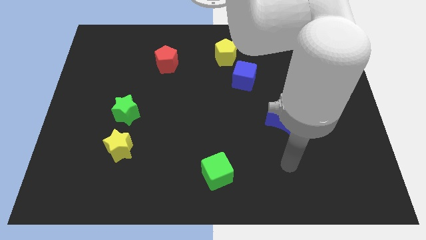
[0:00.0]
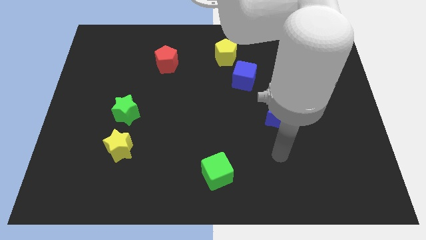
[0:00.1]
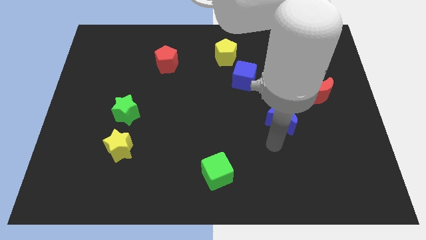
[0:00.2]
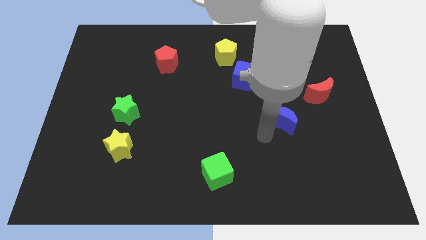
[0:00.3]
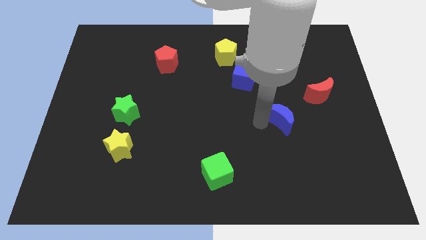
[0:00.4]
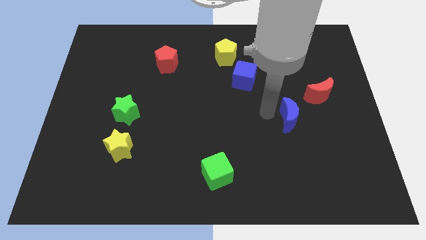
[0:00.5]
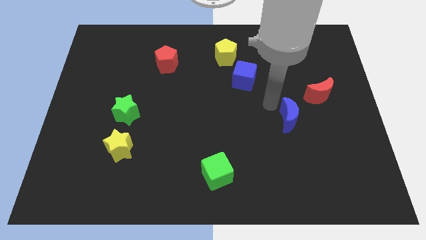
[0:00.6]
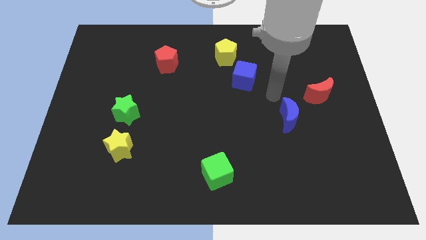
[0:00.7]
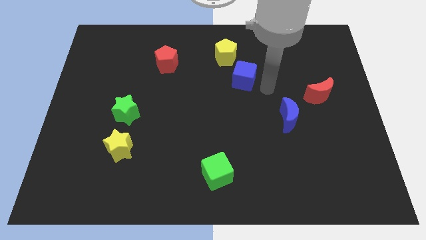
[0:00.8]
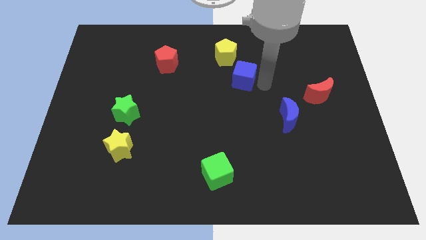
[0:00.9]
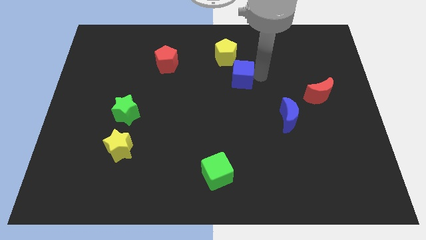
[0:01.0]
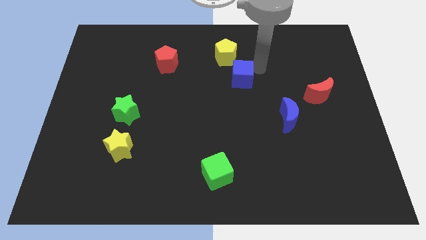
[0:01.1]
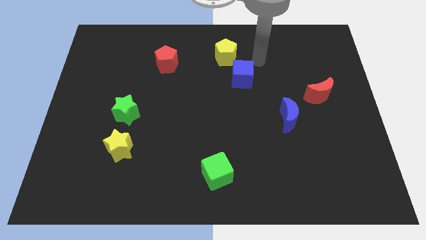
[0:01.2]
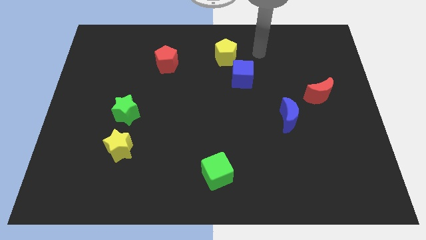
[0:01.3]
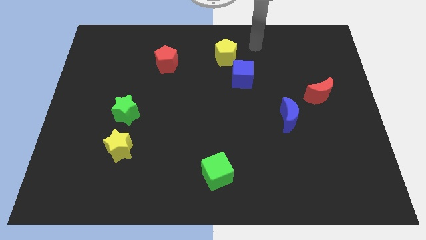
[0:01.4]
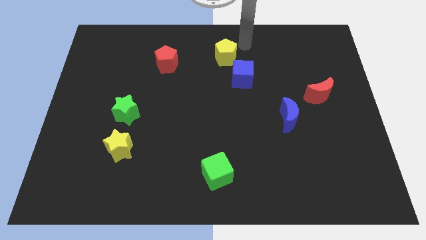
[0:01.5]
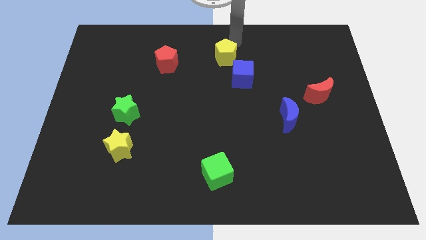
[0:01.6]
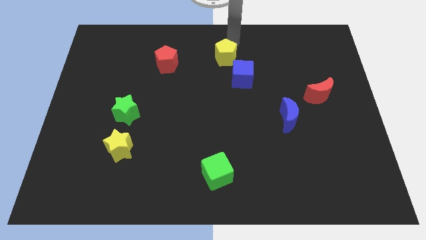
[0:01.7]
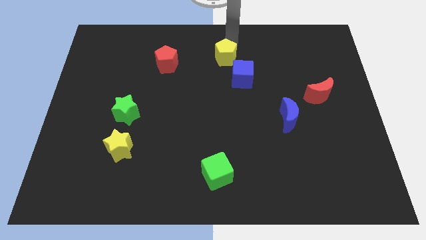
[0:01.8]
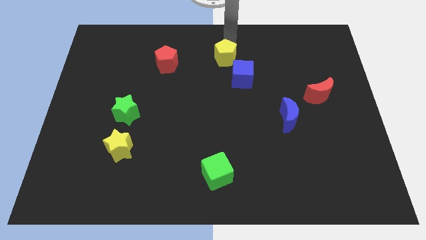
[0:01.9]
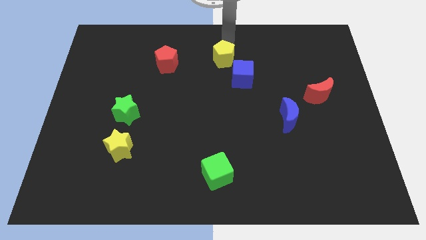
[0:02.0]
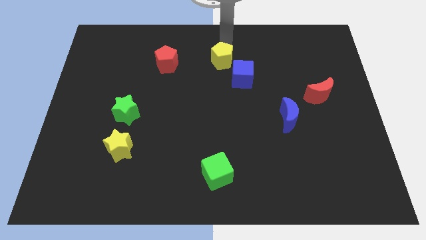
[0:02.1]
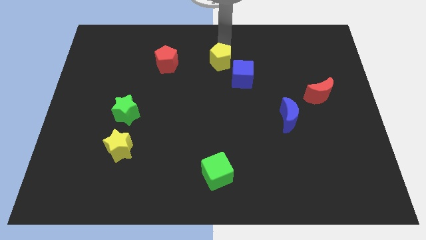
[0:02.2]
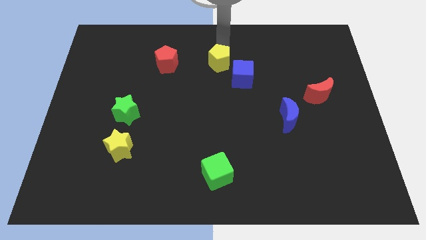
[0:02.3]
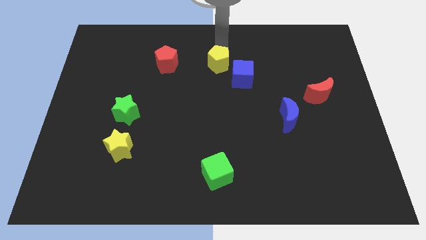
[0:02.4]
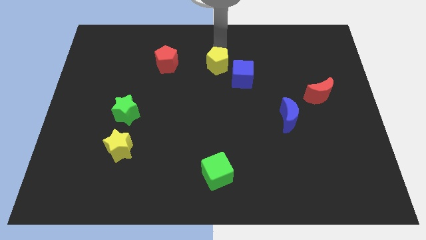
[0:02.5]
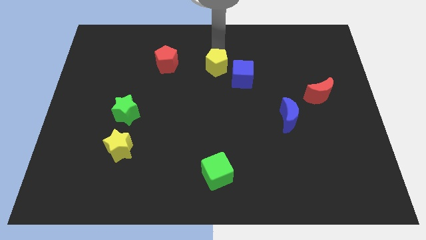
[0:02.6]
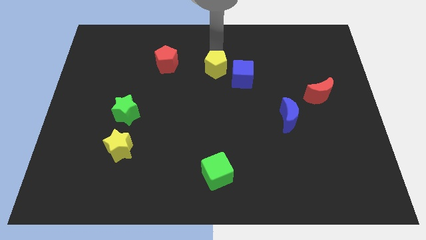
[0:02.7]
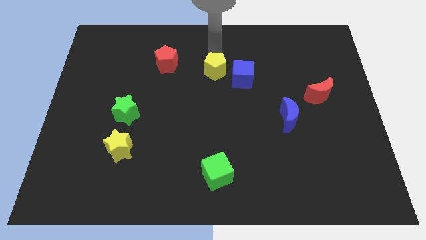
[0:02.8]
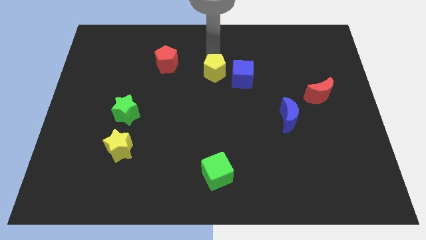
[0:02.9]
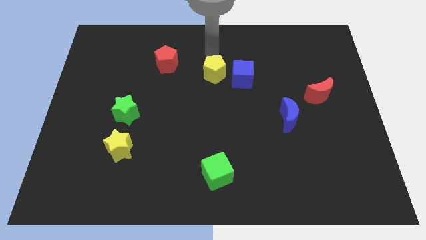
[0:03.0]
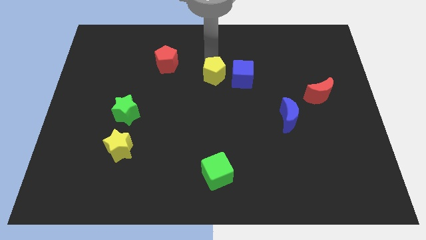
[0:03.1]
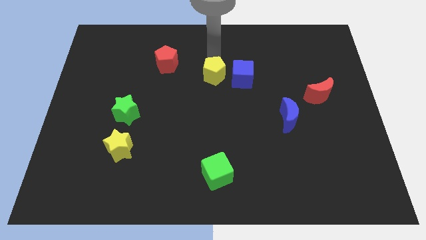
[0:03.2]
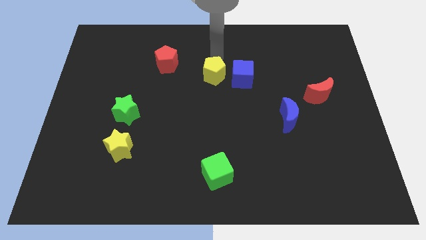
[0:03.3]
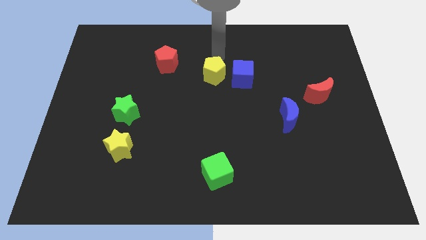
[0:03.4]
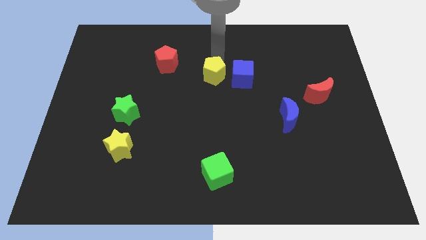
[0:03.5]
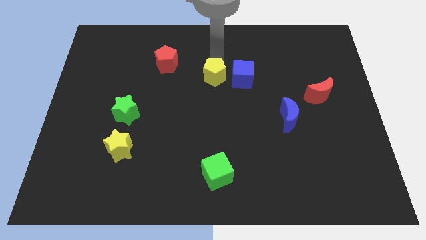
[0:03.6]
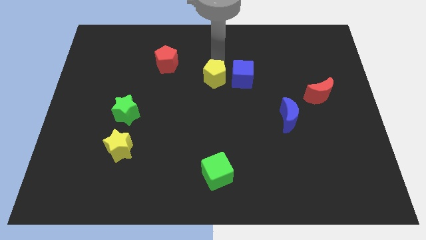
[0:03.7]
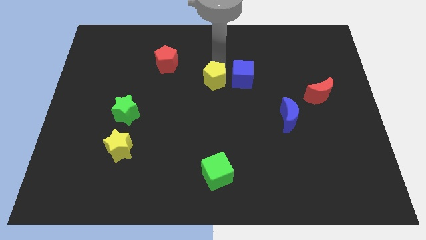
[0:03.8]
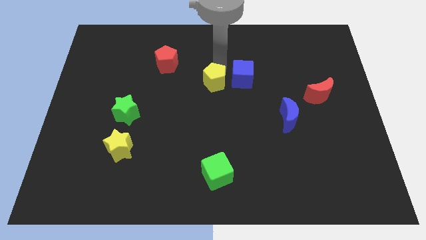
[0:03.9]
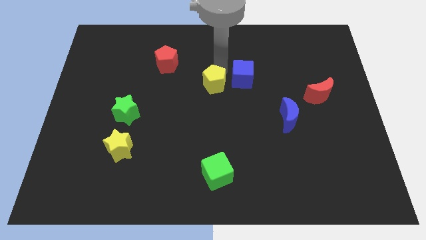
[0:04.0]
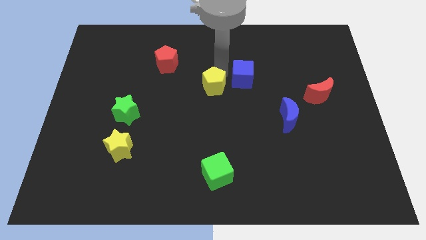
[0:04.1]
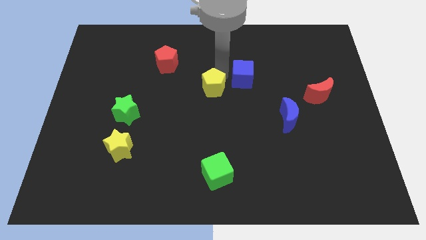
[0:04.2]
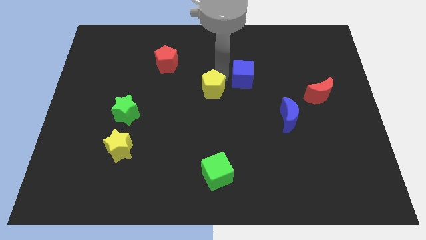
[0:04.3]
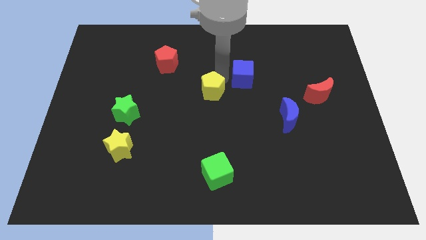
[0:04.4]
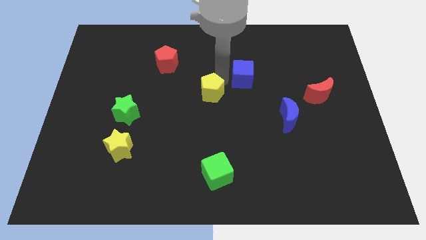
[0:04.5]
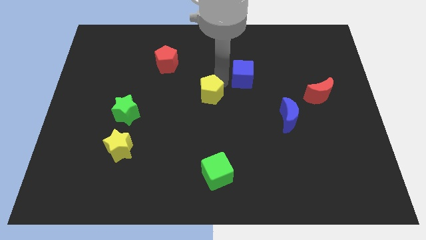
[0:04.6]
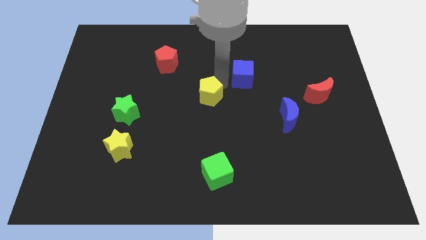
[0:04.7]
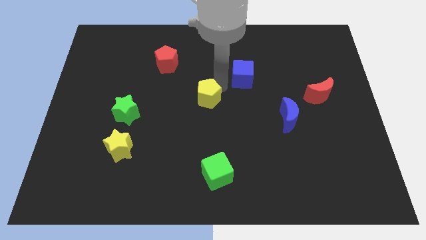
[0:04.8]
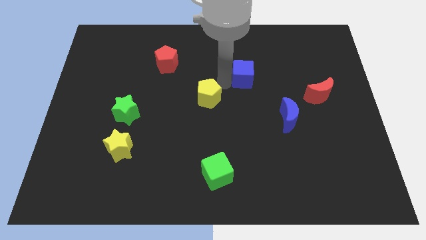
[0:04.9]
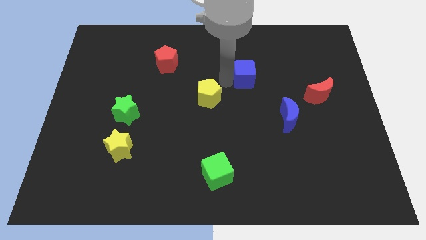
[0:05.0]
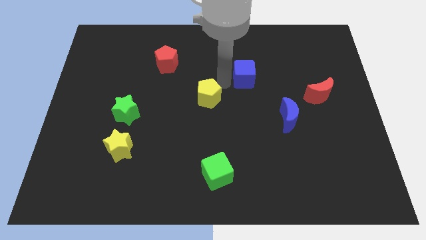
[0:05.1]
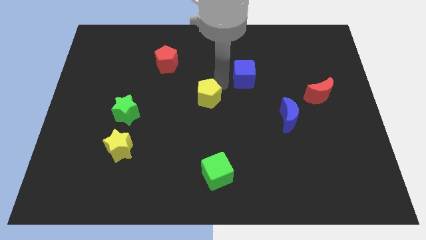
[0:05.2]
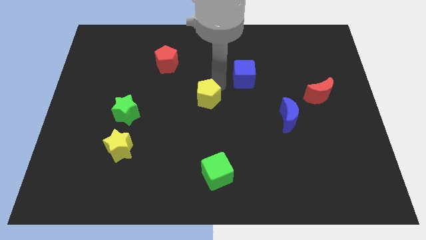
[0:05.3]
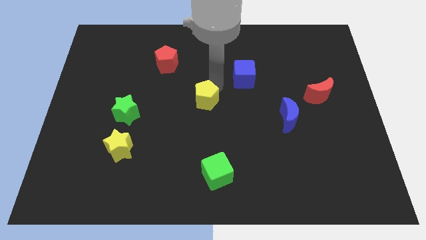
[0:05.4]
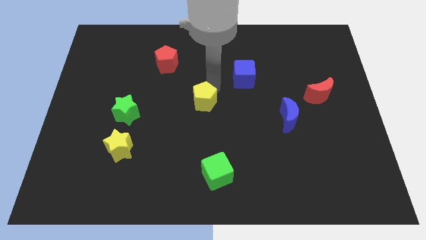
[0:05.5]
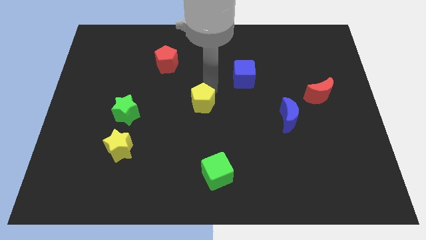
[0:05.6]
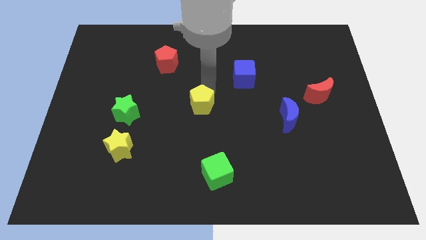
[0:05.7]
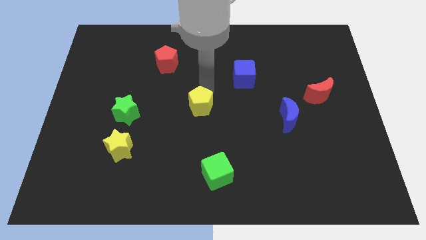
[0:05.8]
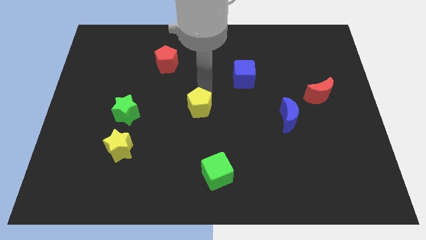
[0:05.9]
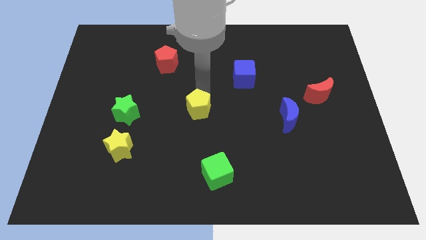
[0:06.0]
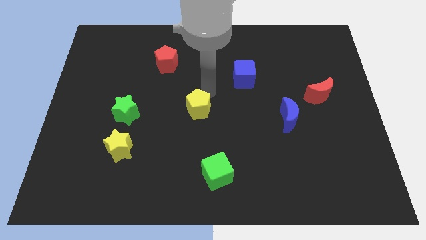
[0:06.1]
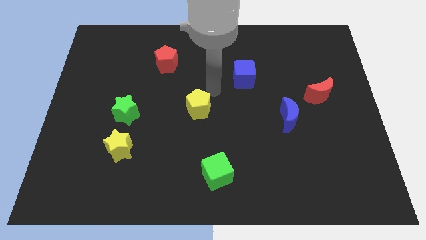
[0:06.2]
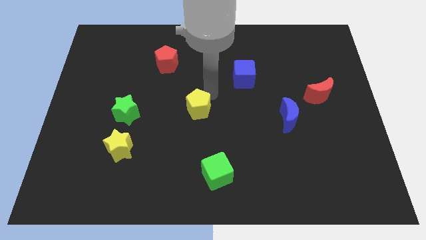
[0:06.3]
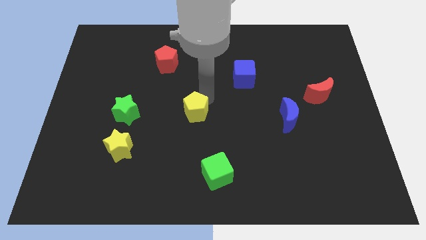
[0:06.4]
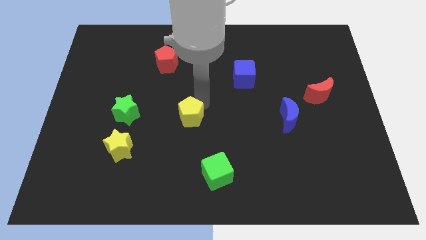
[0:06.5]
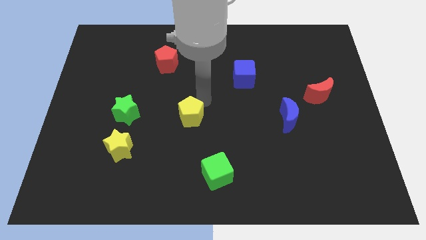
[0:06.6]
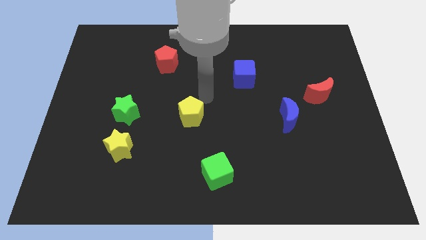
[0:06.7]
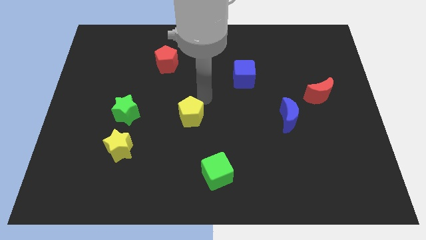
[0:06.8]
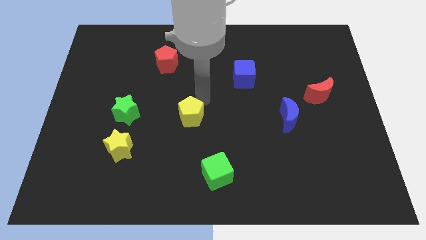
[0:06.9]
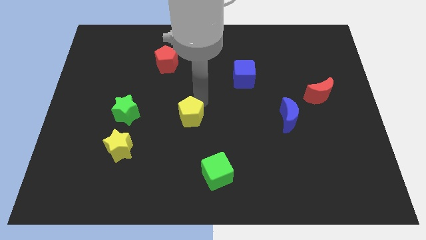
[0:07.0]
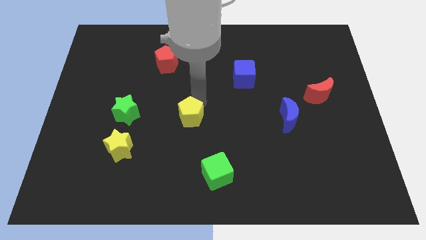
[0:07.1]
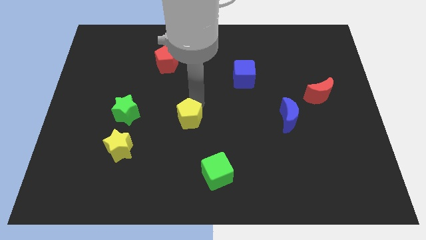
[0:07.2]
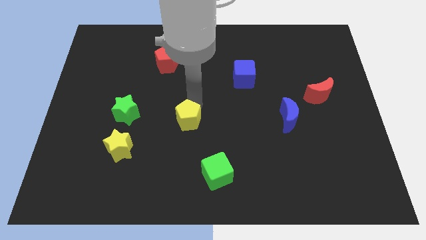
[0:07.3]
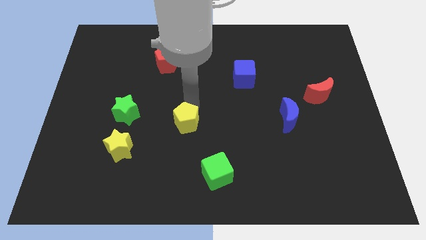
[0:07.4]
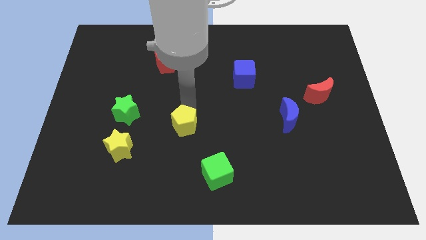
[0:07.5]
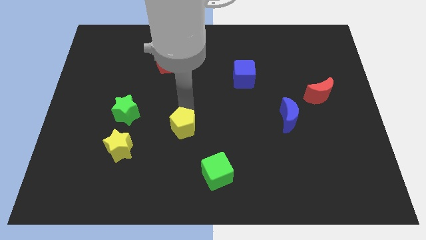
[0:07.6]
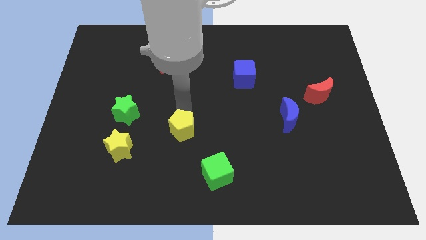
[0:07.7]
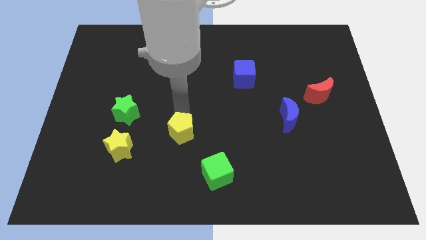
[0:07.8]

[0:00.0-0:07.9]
move the yellow pentagon to the right of the yellow star
